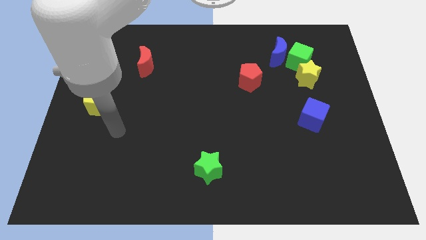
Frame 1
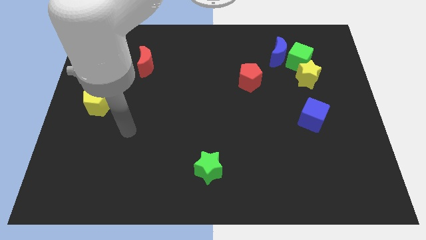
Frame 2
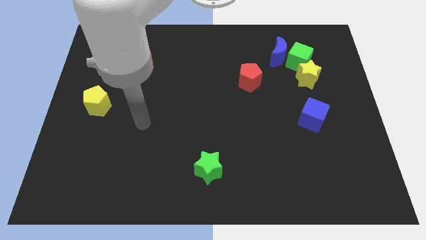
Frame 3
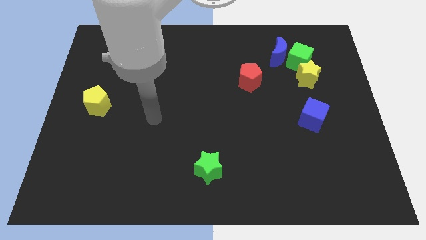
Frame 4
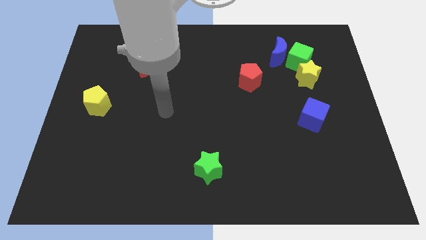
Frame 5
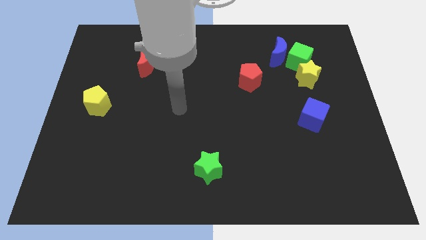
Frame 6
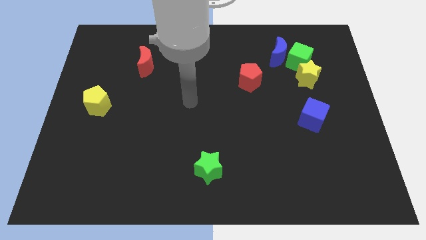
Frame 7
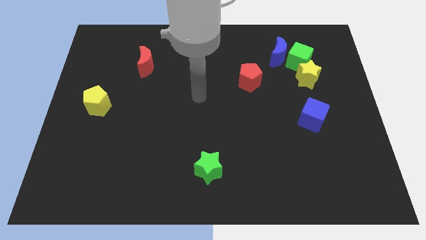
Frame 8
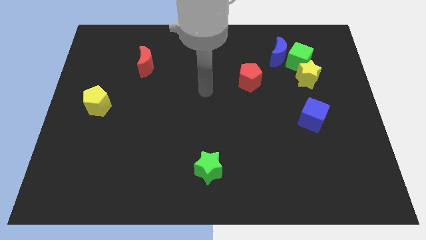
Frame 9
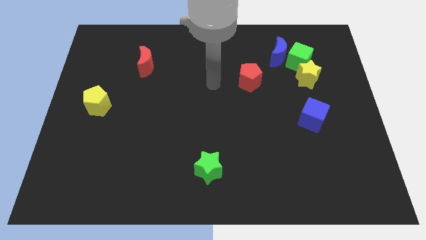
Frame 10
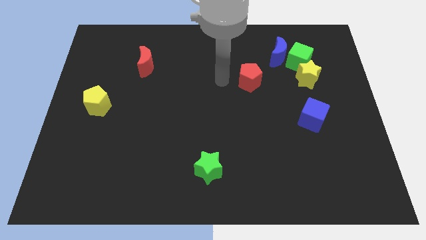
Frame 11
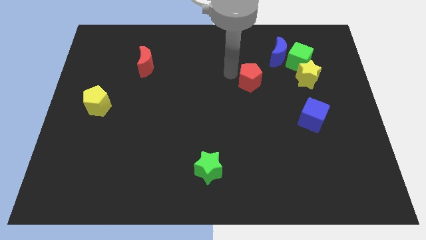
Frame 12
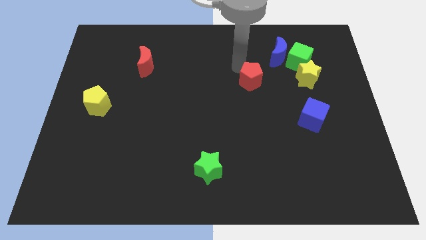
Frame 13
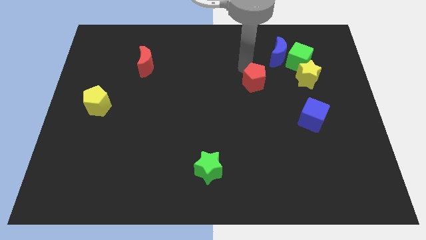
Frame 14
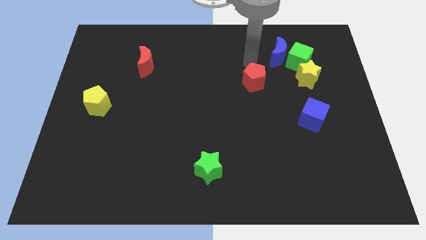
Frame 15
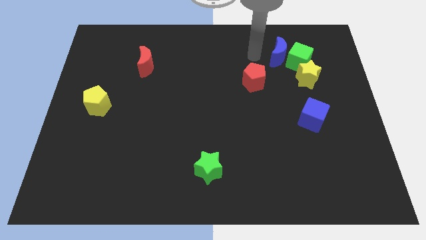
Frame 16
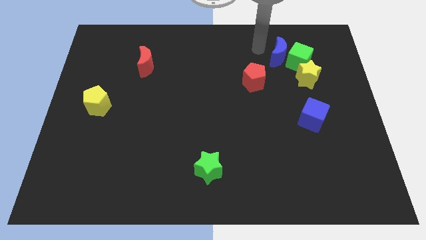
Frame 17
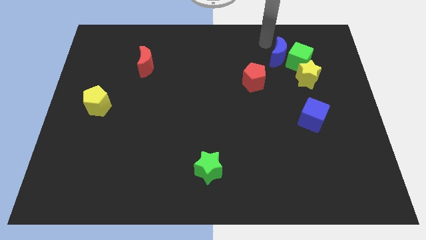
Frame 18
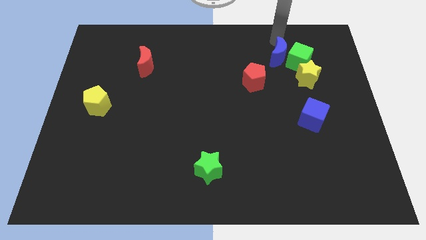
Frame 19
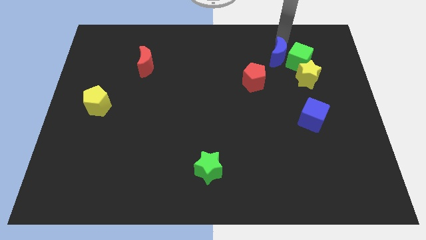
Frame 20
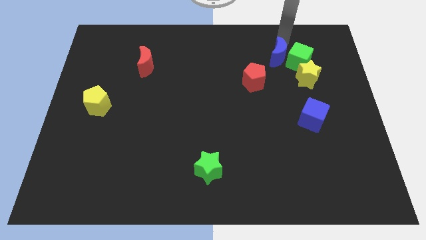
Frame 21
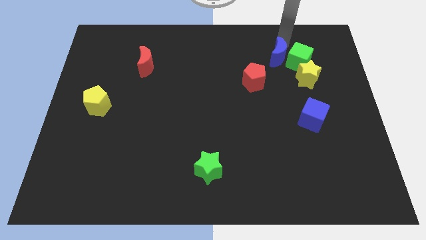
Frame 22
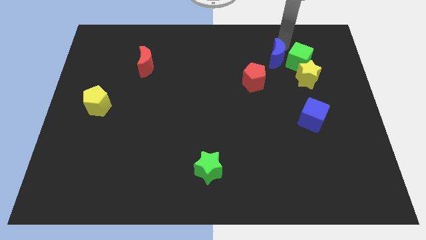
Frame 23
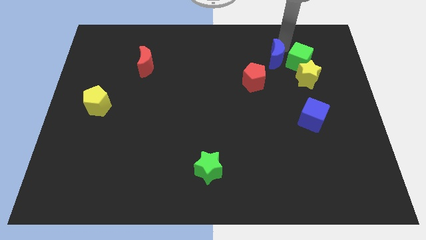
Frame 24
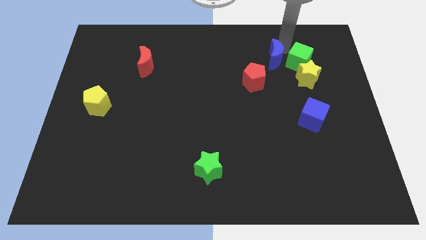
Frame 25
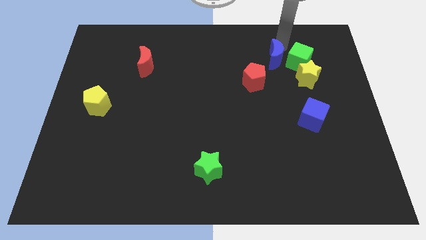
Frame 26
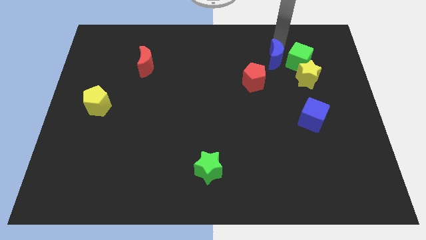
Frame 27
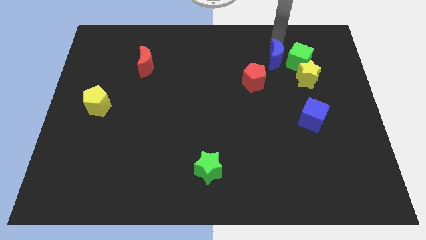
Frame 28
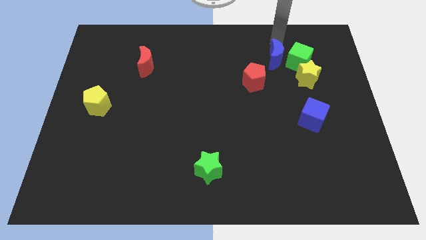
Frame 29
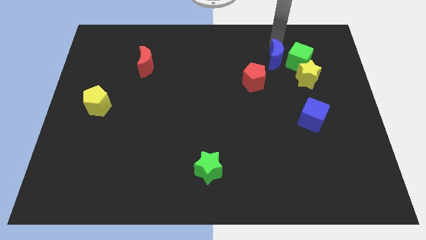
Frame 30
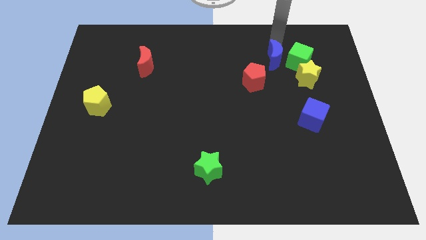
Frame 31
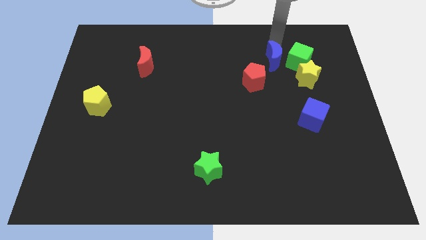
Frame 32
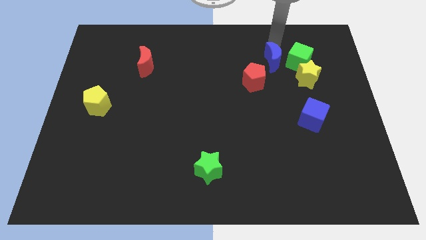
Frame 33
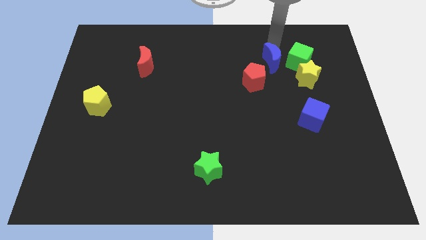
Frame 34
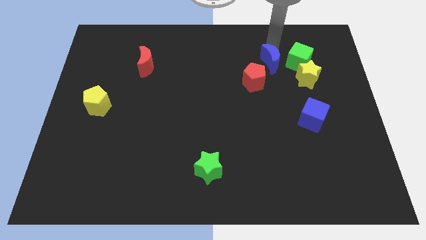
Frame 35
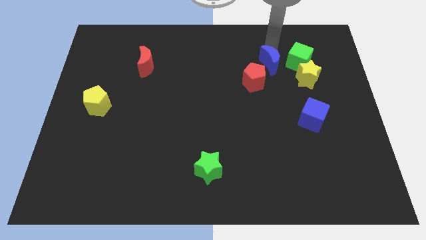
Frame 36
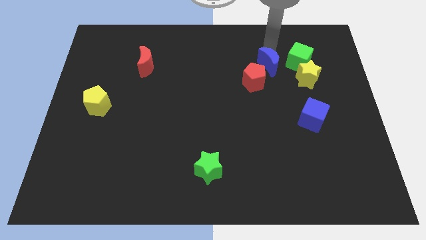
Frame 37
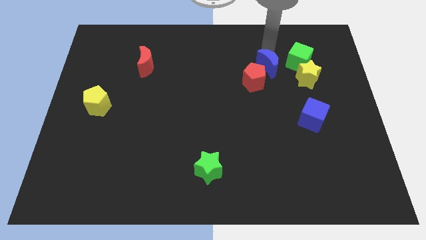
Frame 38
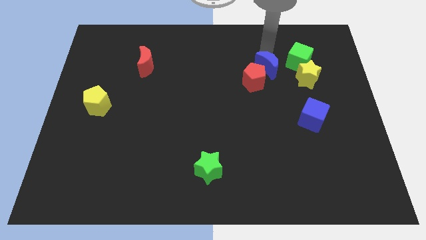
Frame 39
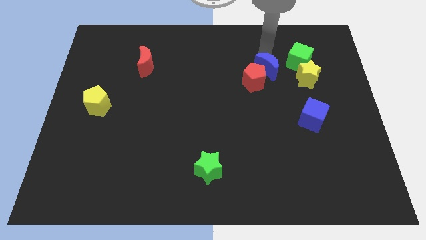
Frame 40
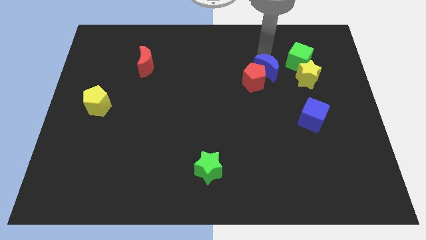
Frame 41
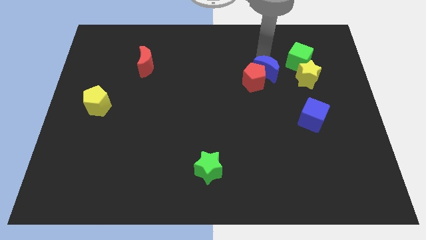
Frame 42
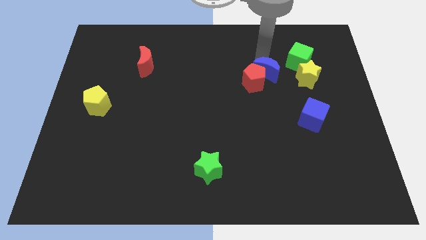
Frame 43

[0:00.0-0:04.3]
move the blue moon slightly downwards and then left

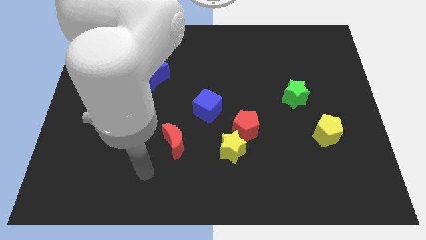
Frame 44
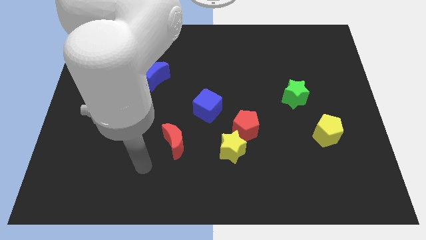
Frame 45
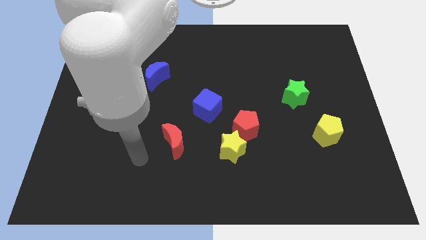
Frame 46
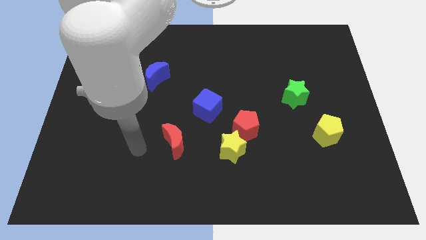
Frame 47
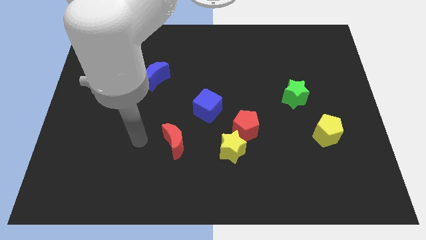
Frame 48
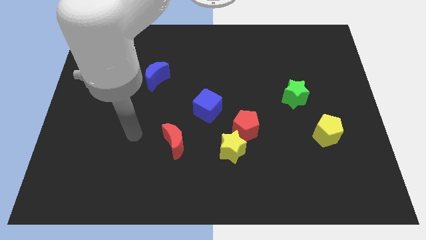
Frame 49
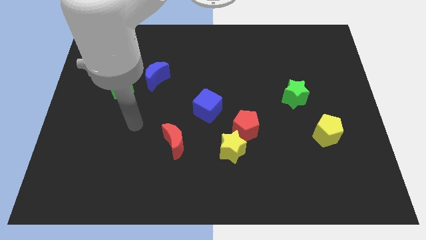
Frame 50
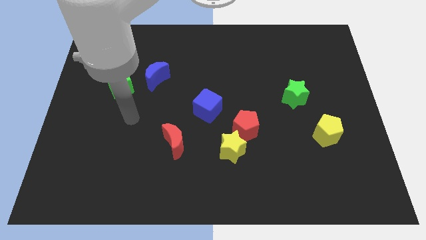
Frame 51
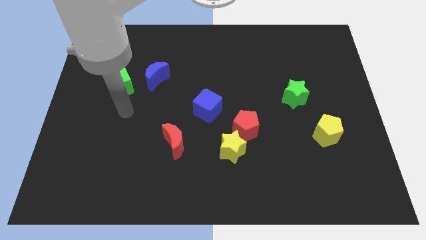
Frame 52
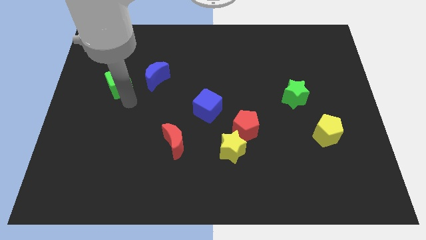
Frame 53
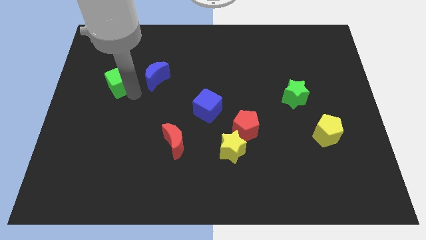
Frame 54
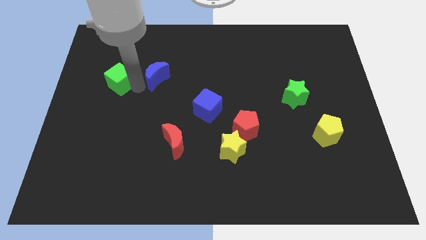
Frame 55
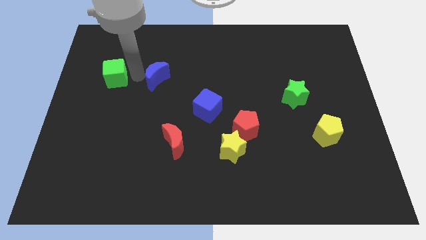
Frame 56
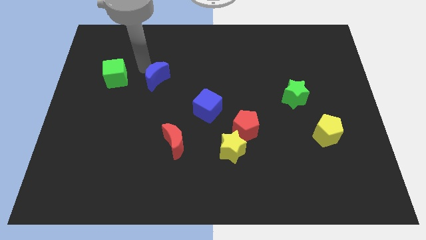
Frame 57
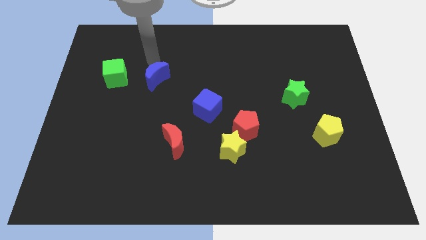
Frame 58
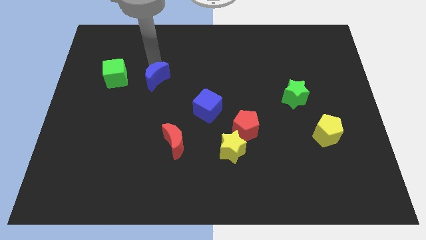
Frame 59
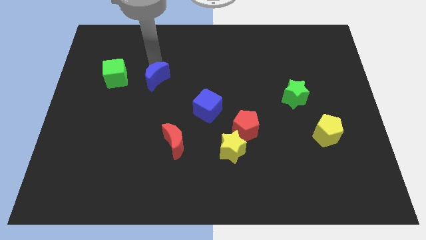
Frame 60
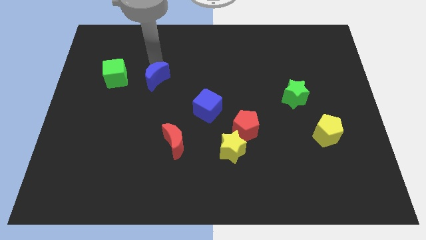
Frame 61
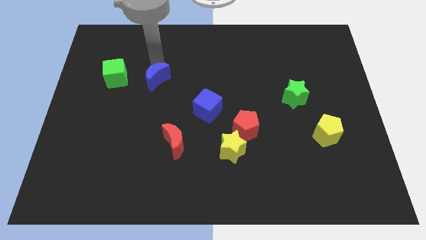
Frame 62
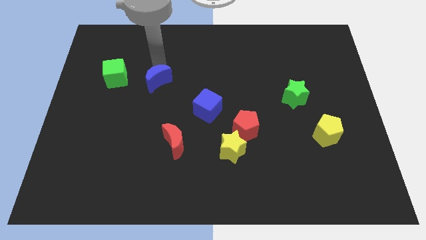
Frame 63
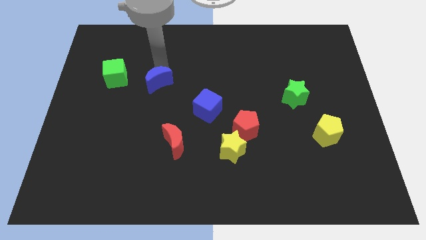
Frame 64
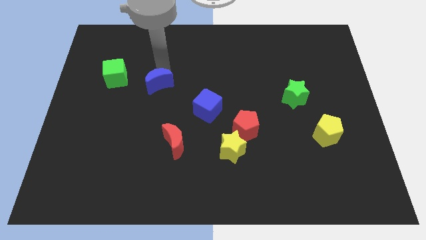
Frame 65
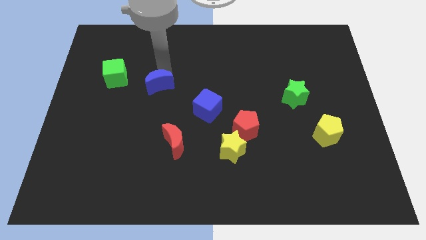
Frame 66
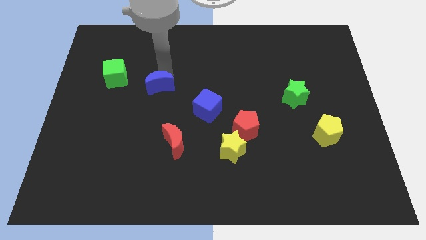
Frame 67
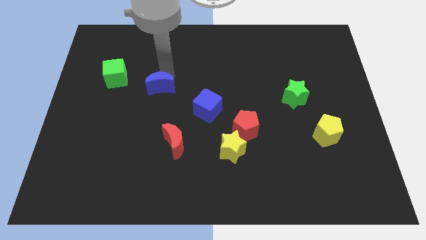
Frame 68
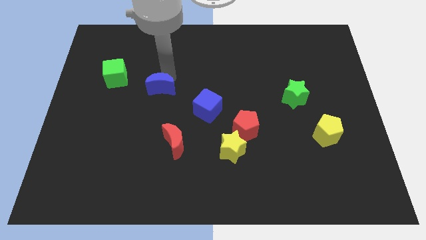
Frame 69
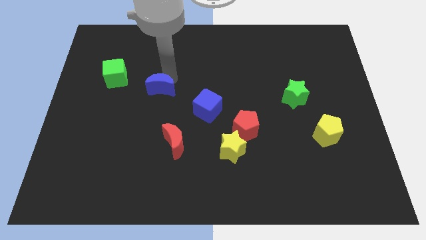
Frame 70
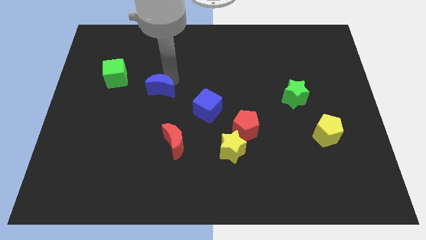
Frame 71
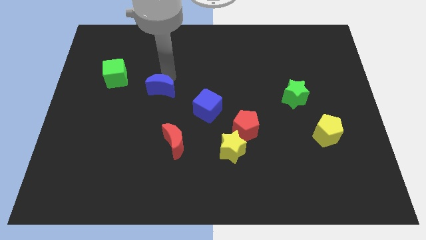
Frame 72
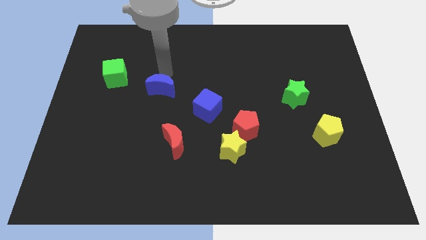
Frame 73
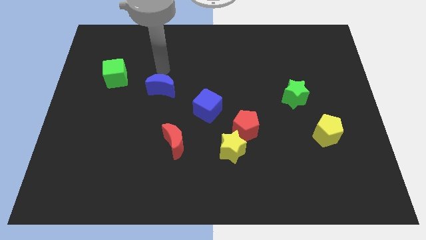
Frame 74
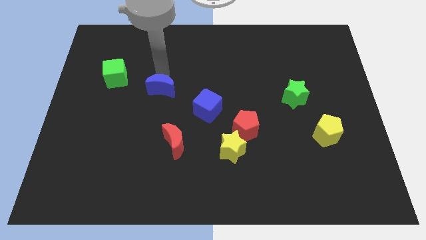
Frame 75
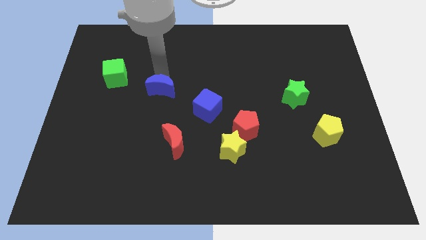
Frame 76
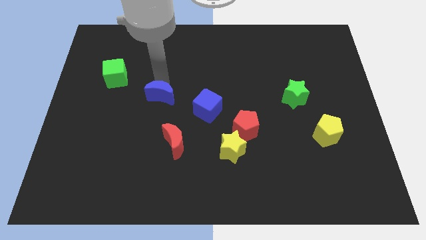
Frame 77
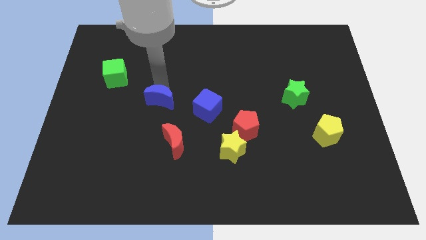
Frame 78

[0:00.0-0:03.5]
push the blue moon downwards a little bit

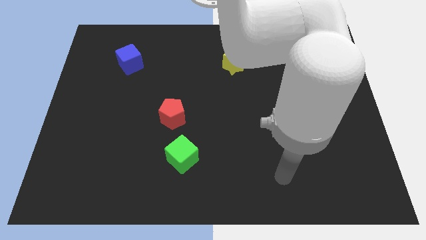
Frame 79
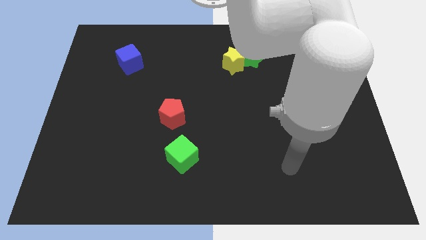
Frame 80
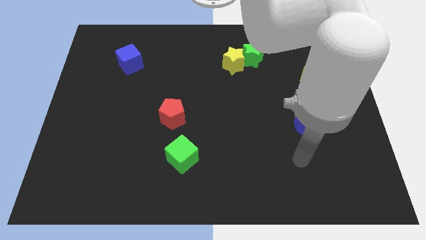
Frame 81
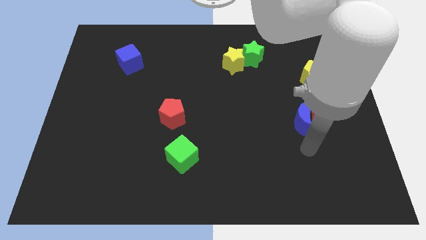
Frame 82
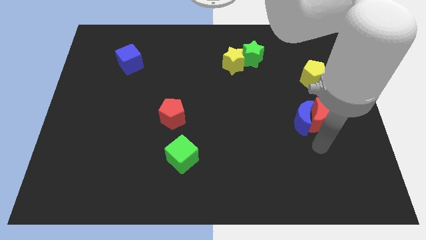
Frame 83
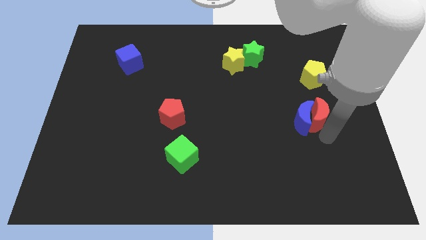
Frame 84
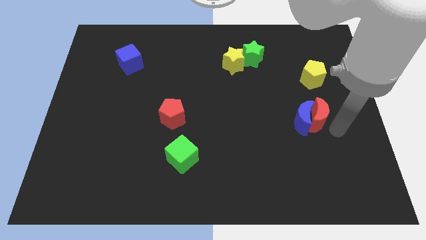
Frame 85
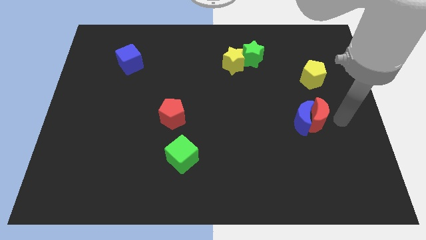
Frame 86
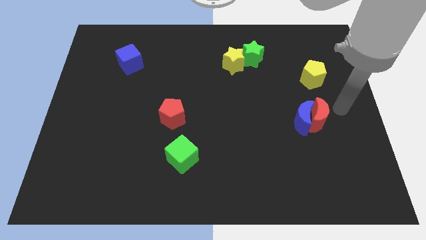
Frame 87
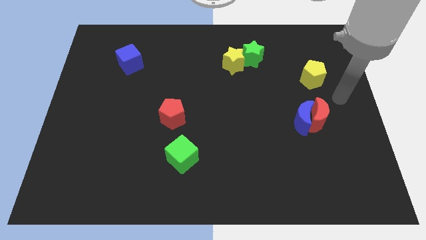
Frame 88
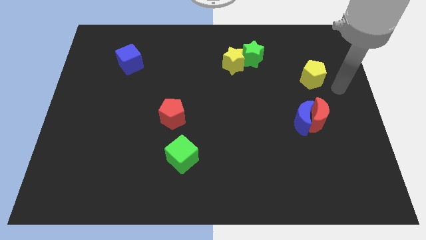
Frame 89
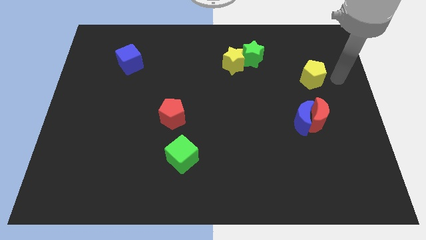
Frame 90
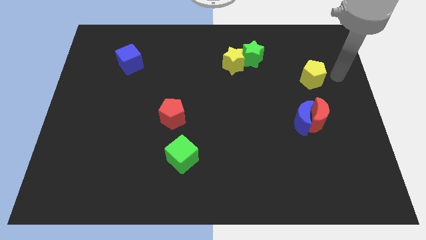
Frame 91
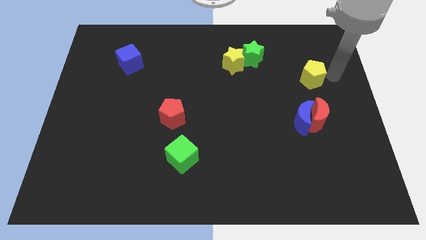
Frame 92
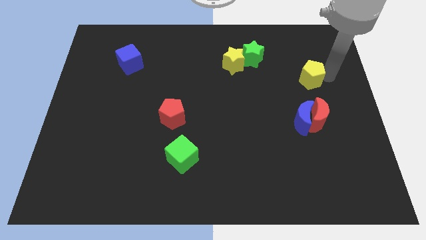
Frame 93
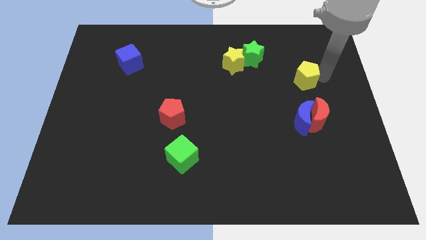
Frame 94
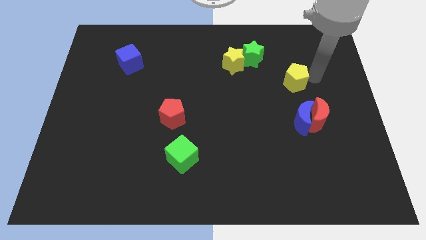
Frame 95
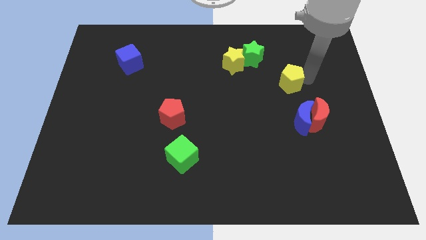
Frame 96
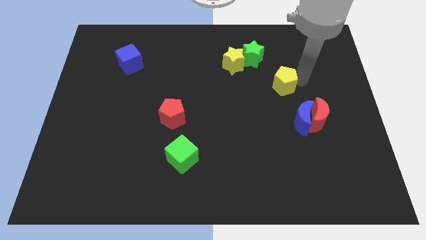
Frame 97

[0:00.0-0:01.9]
slightly push the yellow pentagon left
